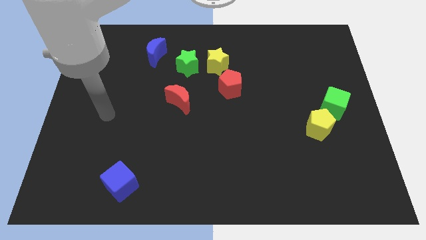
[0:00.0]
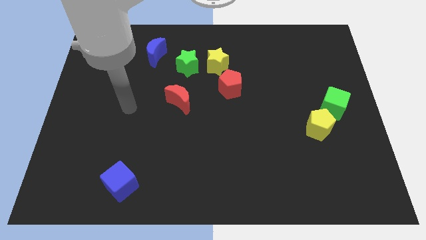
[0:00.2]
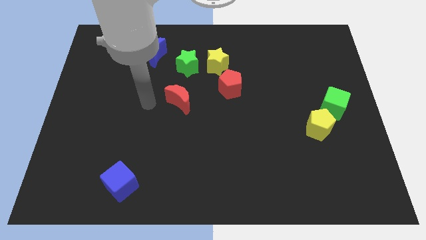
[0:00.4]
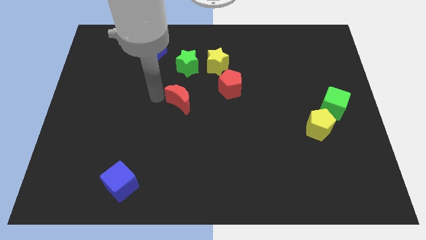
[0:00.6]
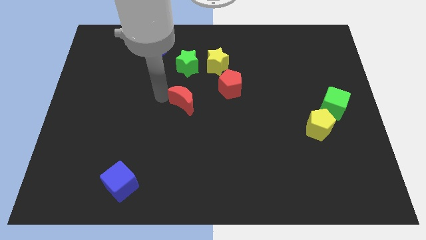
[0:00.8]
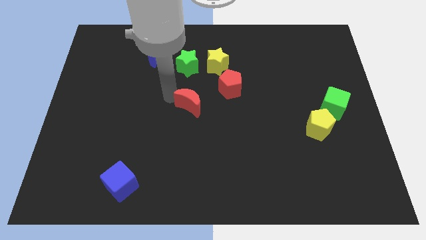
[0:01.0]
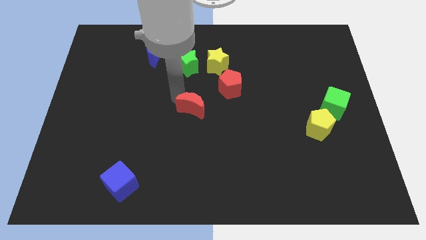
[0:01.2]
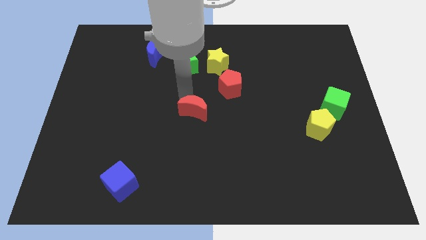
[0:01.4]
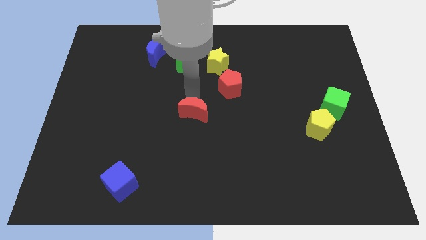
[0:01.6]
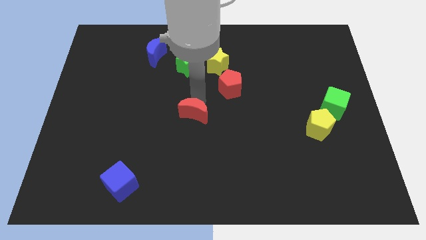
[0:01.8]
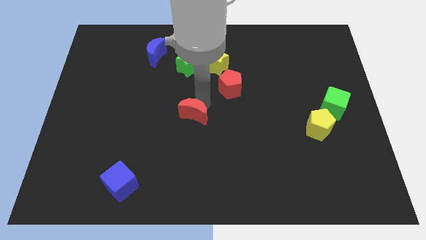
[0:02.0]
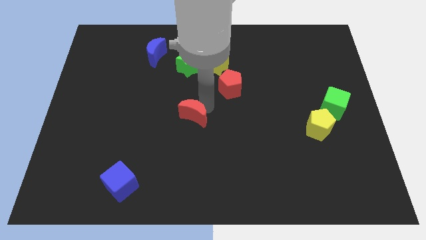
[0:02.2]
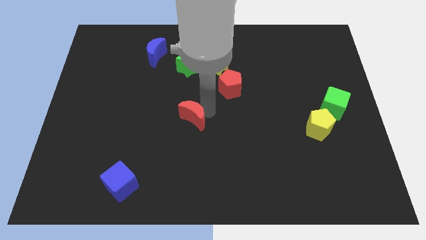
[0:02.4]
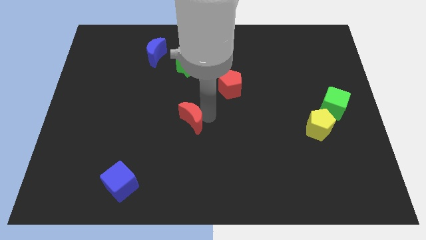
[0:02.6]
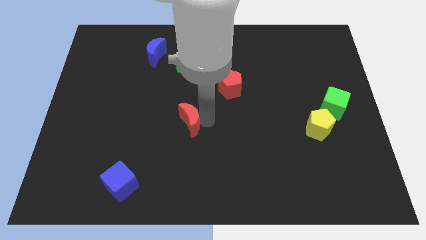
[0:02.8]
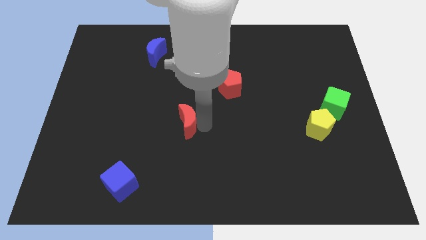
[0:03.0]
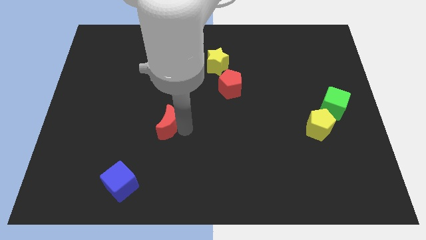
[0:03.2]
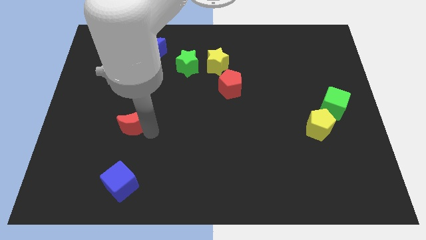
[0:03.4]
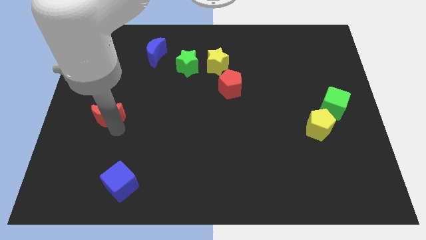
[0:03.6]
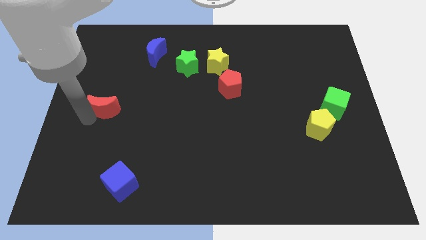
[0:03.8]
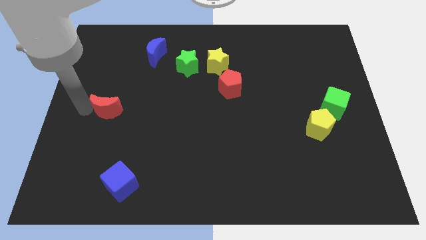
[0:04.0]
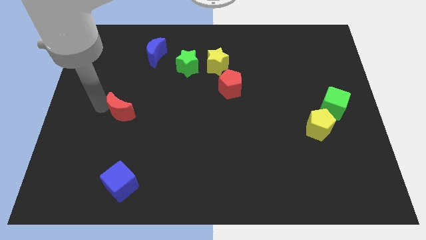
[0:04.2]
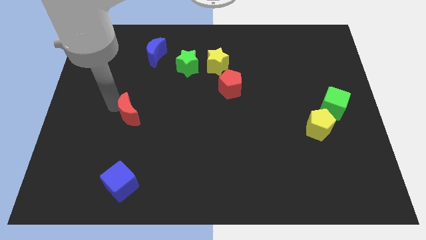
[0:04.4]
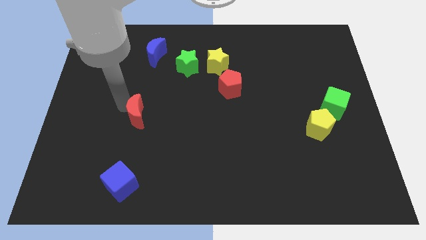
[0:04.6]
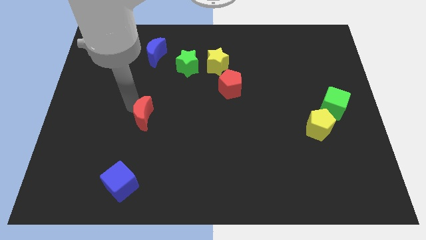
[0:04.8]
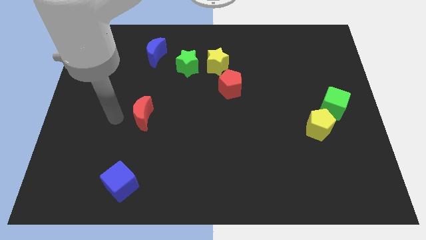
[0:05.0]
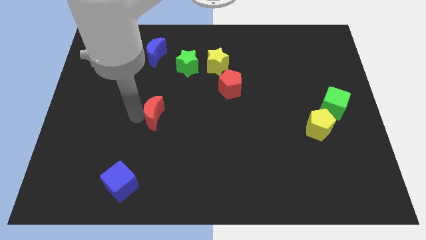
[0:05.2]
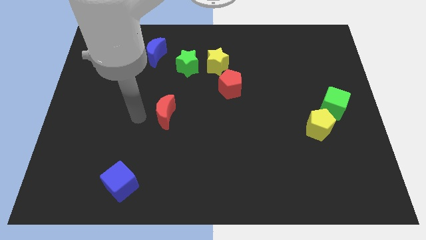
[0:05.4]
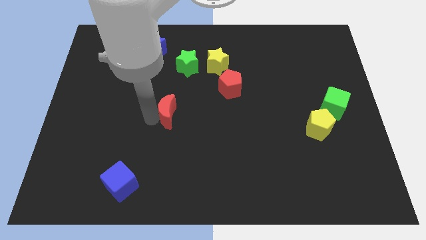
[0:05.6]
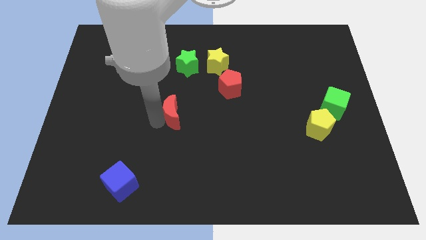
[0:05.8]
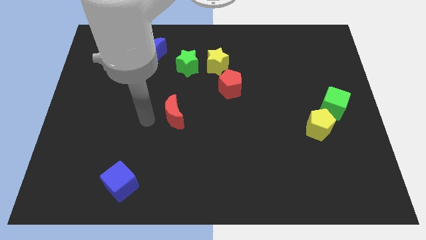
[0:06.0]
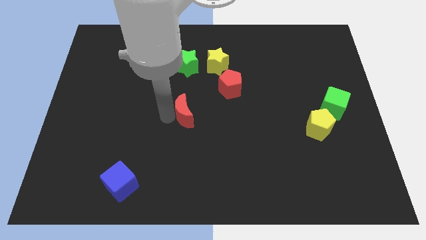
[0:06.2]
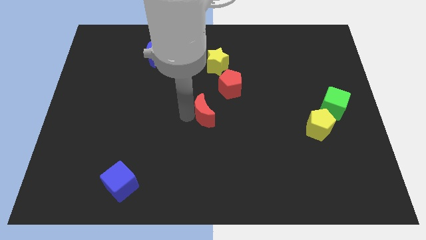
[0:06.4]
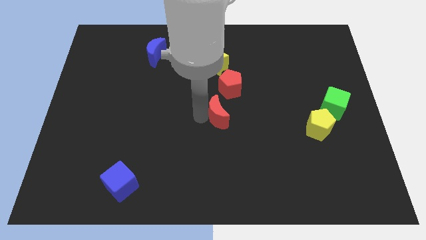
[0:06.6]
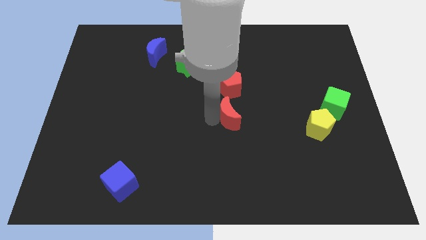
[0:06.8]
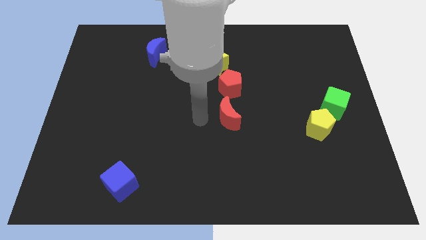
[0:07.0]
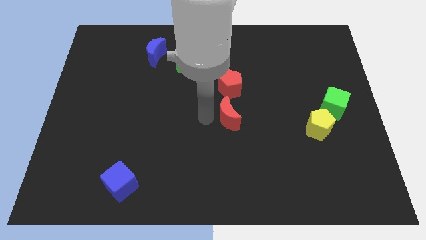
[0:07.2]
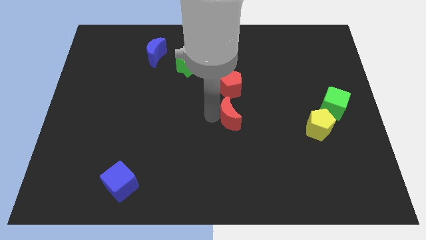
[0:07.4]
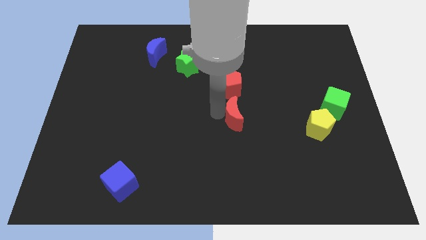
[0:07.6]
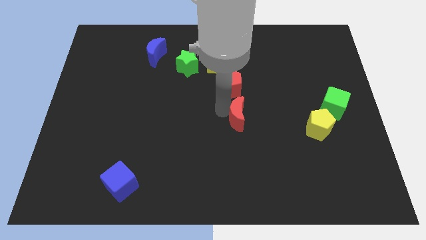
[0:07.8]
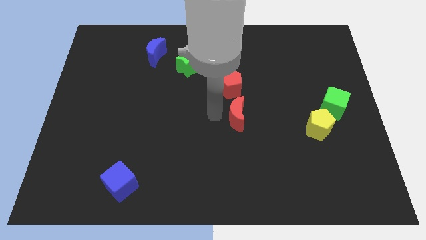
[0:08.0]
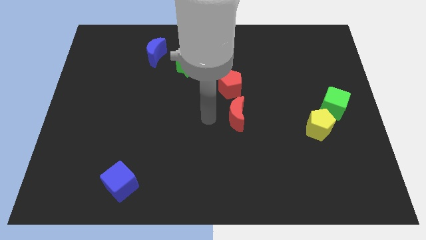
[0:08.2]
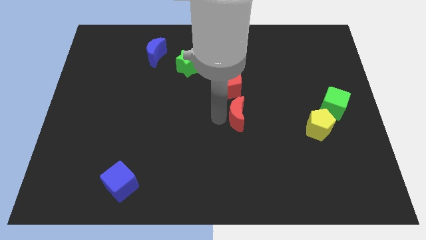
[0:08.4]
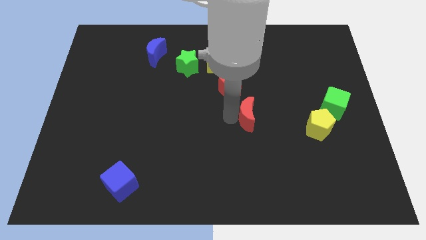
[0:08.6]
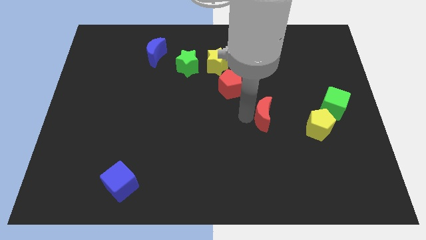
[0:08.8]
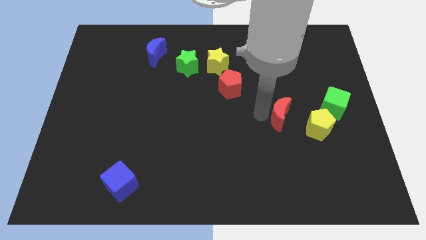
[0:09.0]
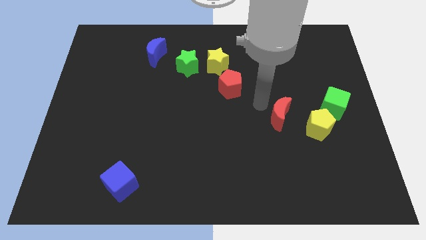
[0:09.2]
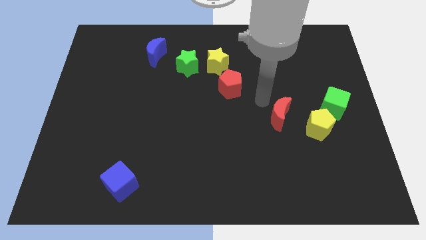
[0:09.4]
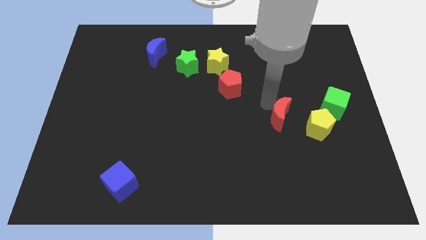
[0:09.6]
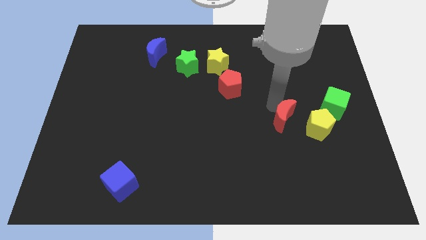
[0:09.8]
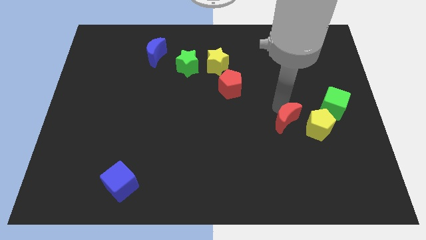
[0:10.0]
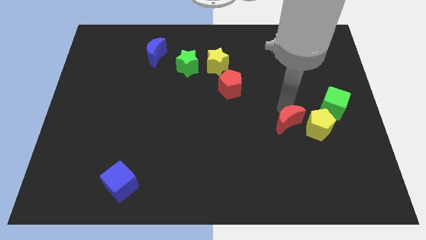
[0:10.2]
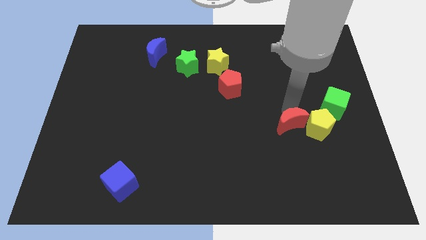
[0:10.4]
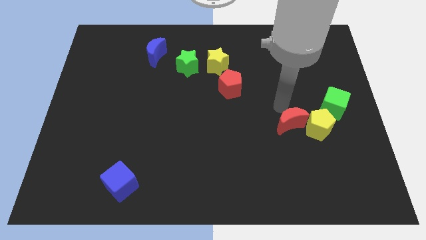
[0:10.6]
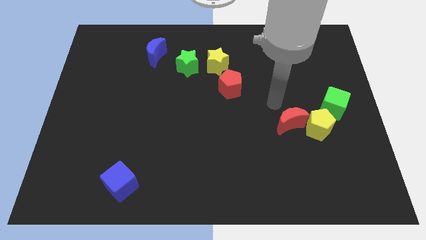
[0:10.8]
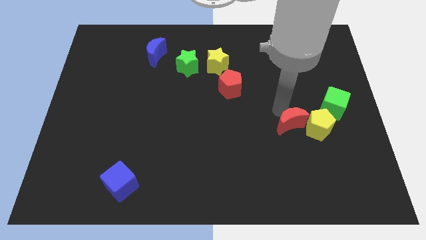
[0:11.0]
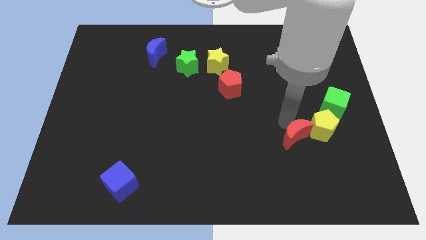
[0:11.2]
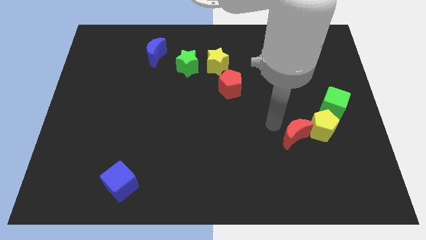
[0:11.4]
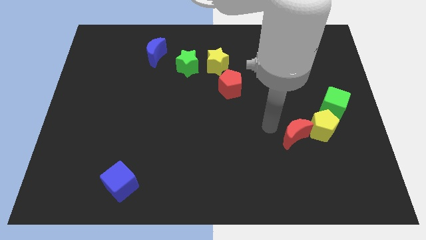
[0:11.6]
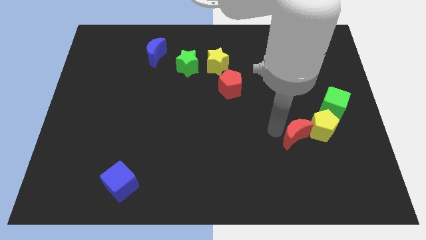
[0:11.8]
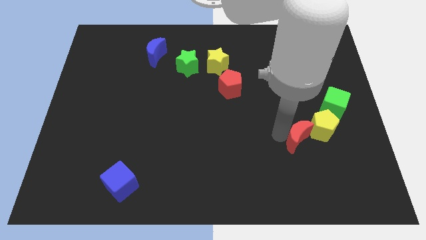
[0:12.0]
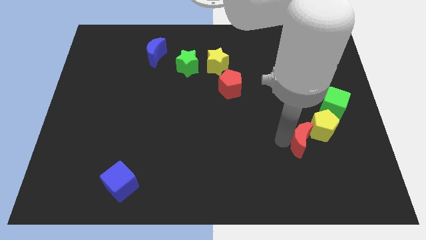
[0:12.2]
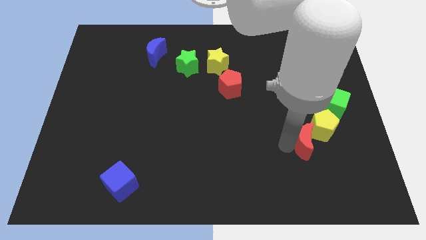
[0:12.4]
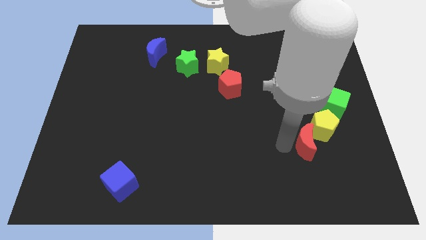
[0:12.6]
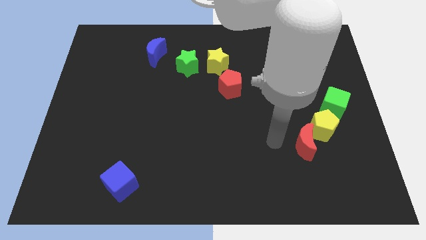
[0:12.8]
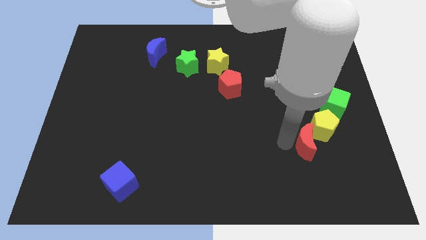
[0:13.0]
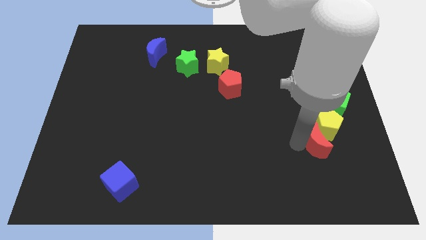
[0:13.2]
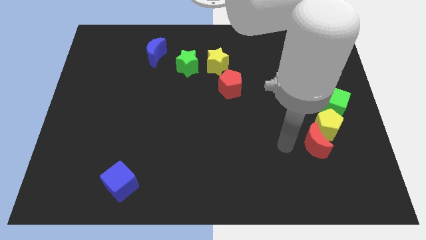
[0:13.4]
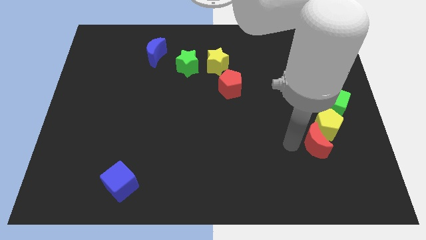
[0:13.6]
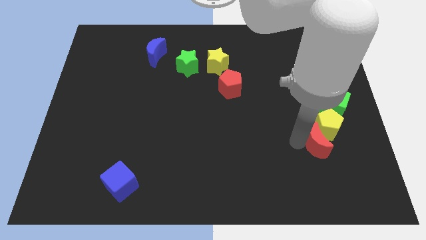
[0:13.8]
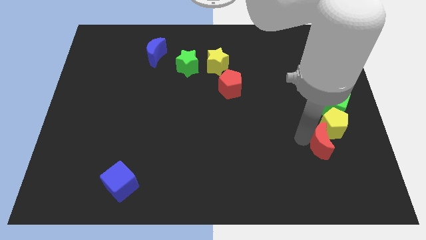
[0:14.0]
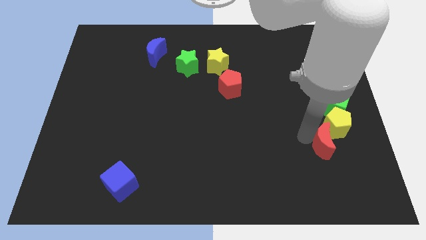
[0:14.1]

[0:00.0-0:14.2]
push the red moon to the bottom of the green cube
